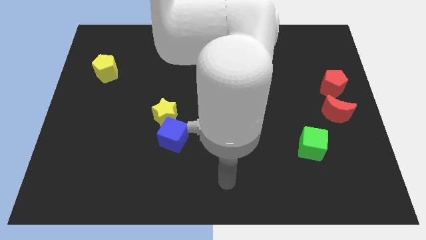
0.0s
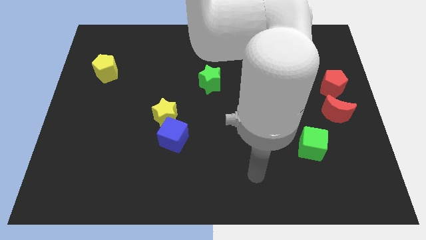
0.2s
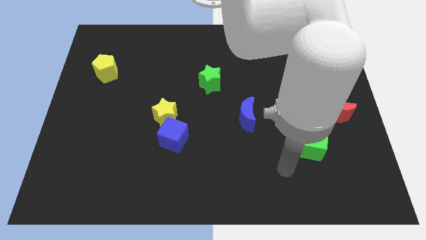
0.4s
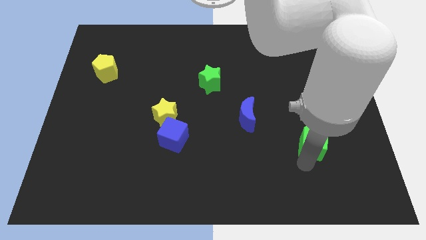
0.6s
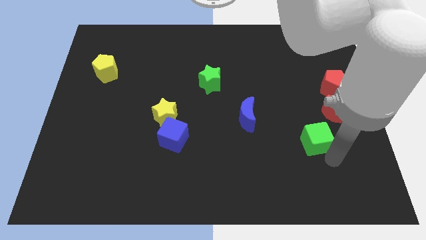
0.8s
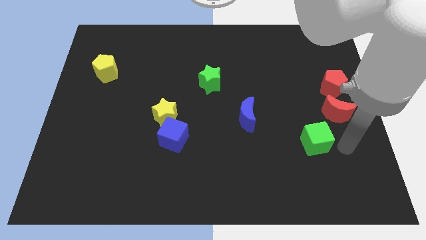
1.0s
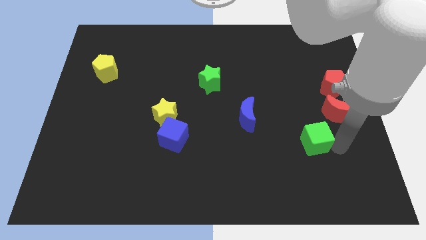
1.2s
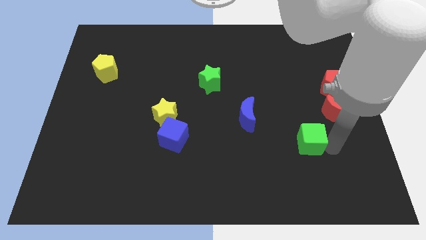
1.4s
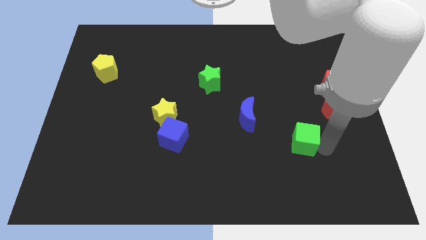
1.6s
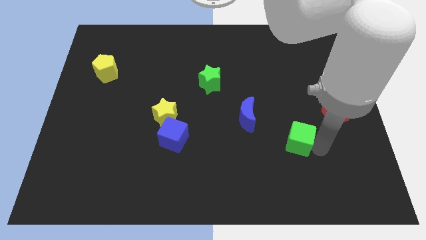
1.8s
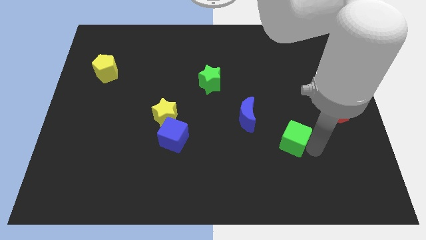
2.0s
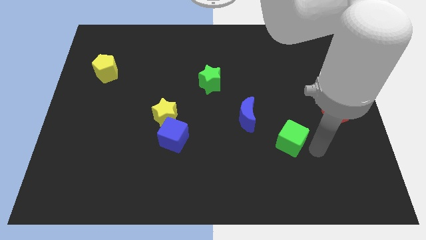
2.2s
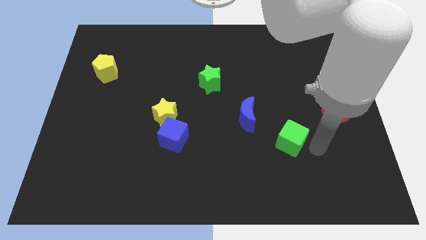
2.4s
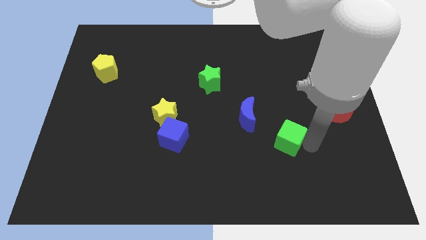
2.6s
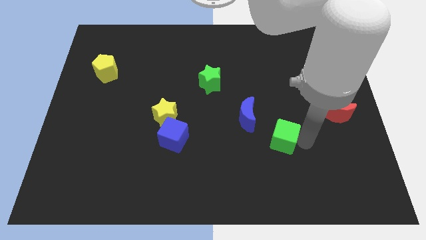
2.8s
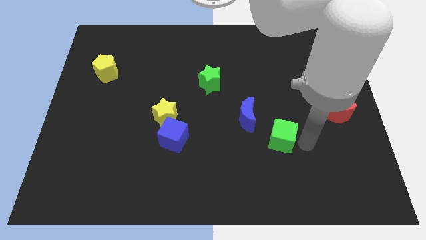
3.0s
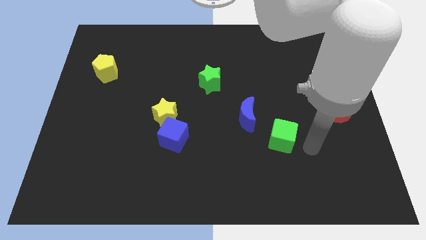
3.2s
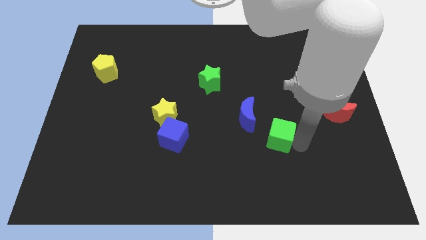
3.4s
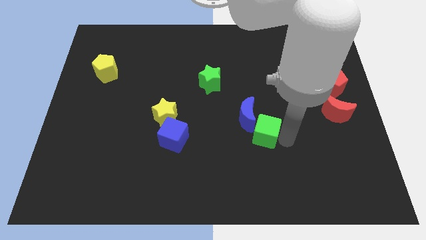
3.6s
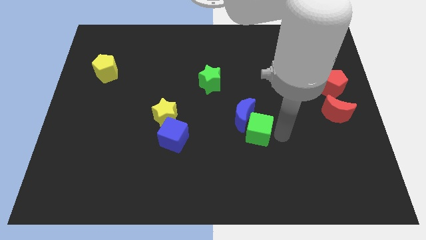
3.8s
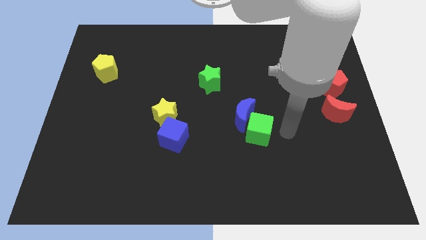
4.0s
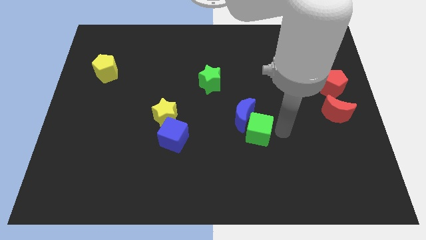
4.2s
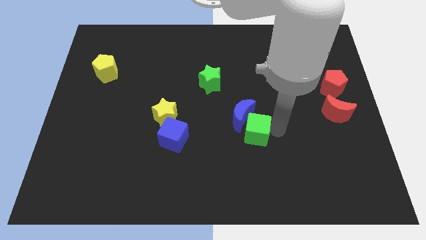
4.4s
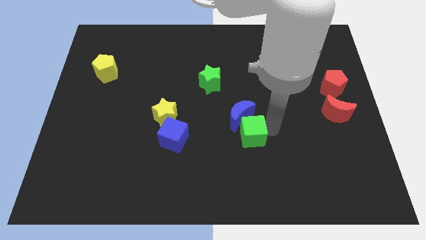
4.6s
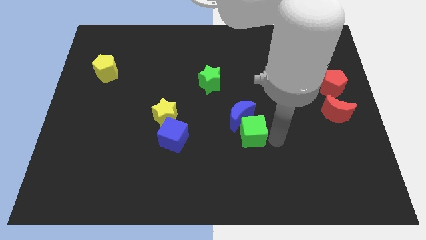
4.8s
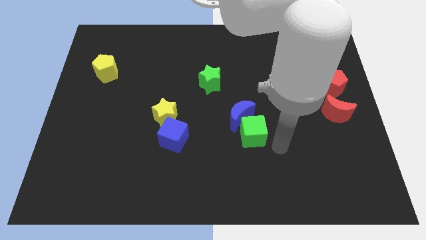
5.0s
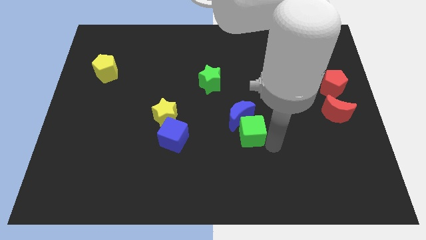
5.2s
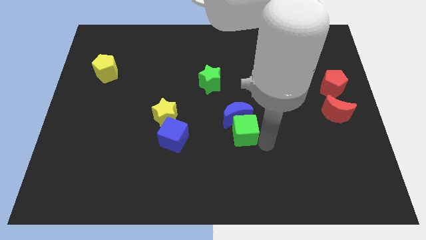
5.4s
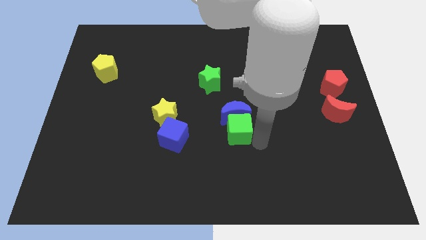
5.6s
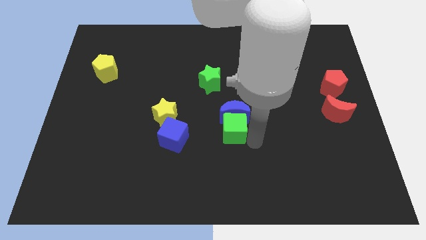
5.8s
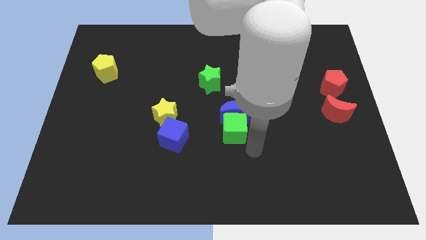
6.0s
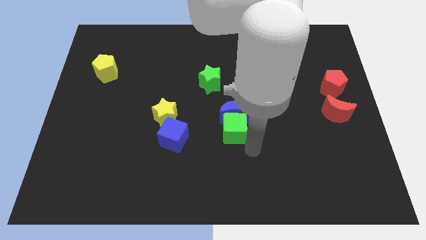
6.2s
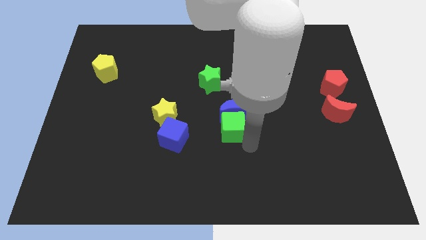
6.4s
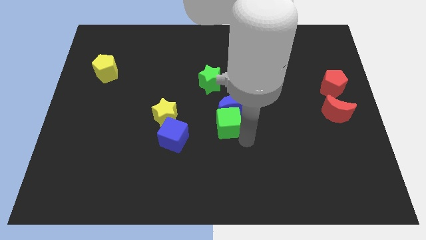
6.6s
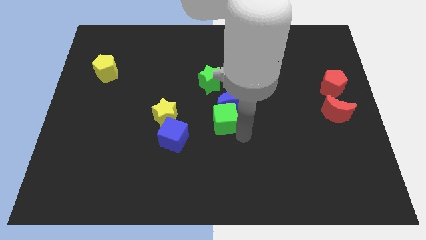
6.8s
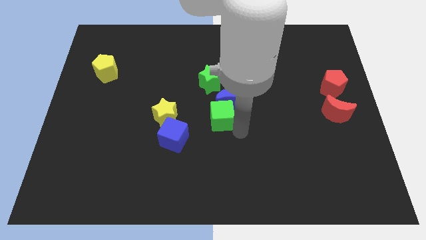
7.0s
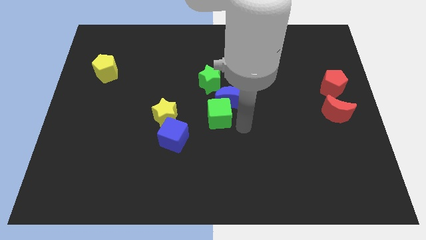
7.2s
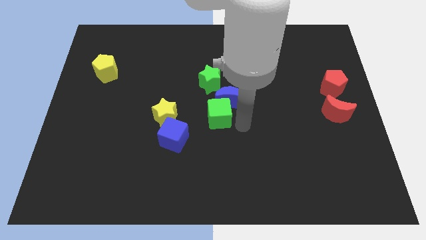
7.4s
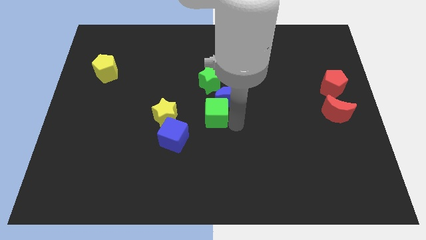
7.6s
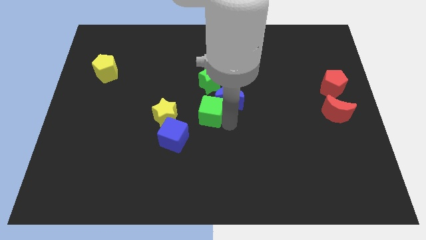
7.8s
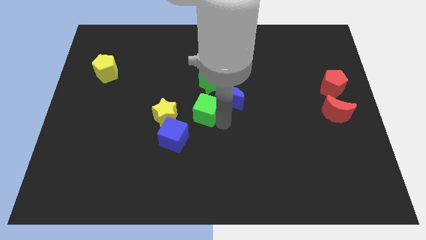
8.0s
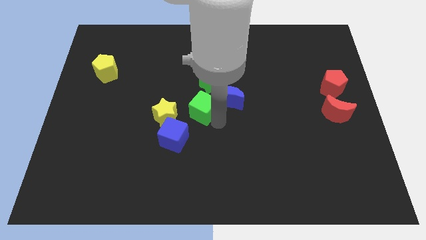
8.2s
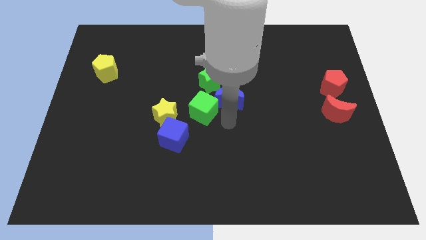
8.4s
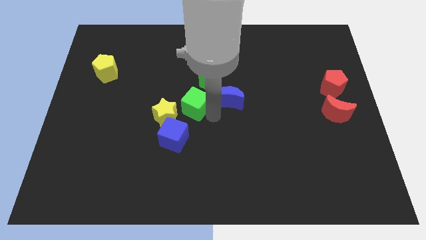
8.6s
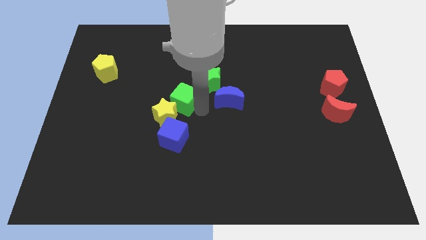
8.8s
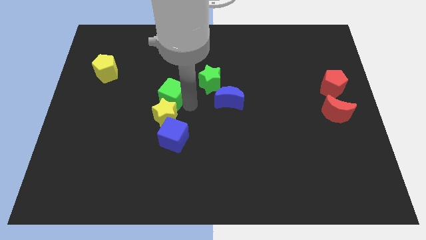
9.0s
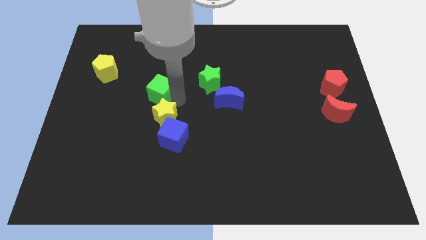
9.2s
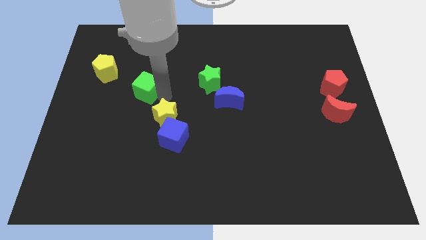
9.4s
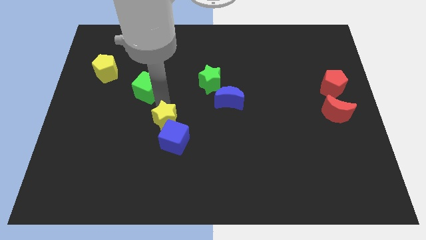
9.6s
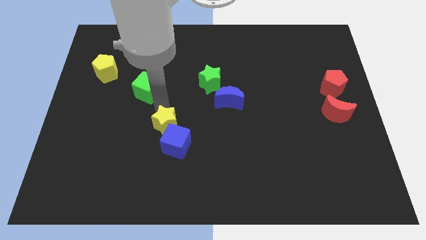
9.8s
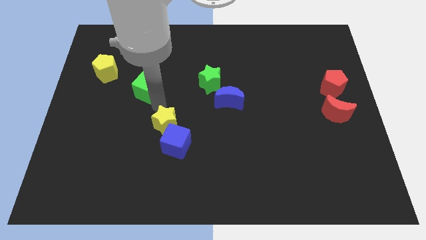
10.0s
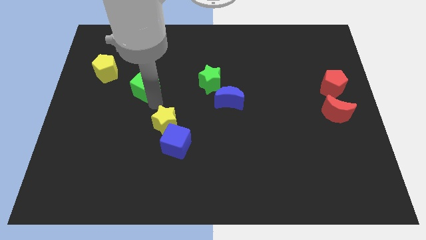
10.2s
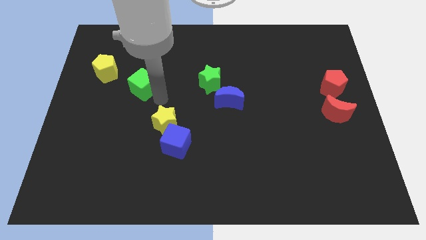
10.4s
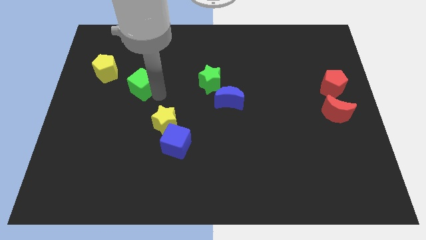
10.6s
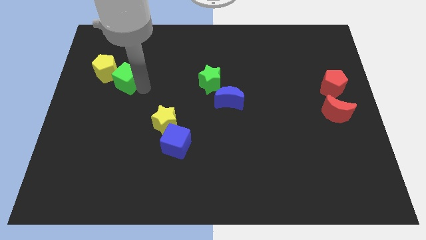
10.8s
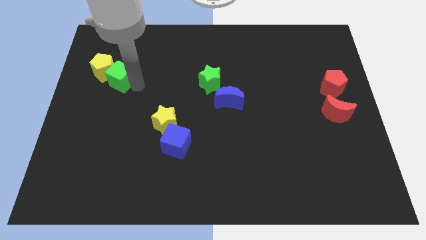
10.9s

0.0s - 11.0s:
push the green cube next to the yellow pentagon

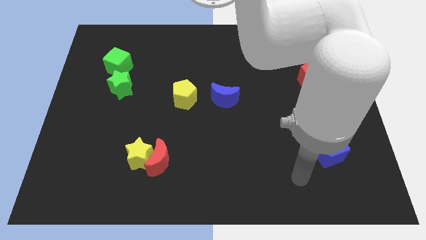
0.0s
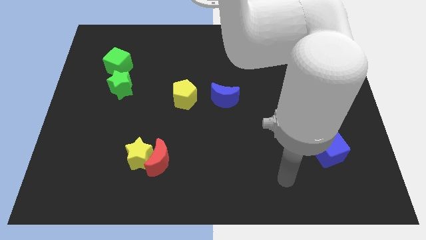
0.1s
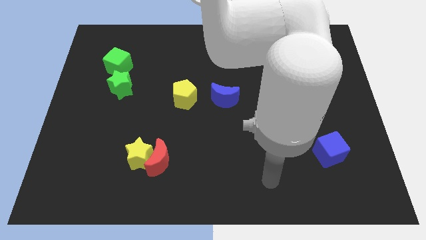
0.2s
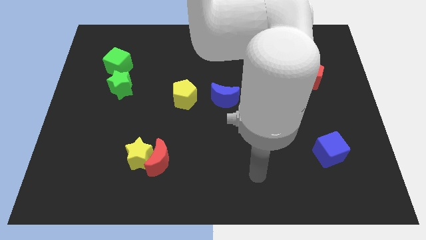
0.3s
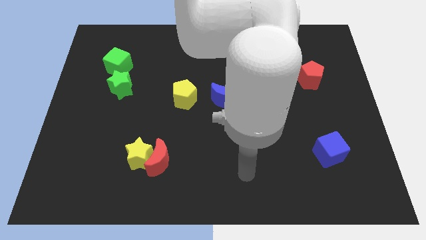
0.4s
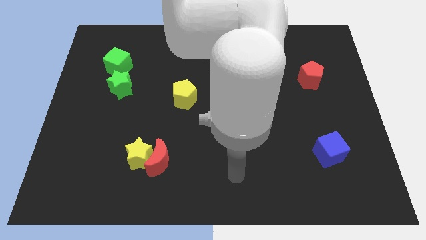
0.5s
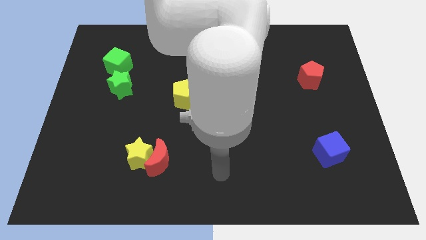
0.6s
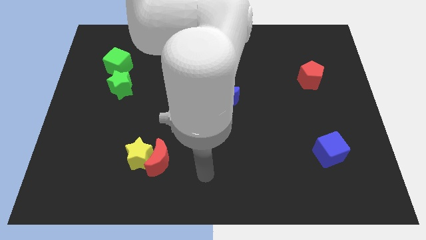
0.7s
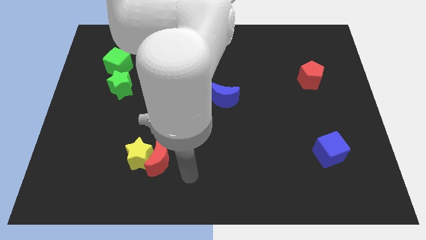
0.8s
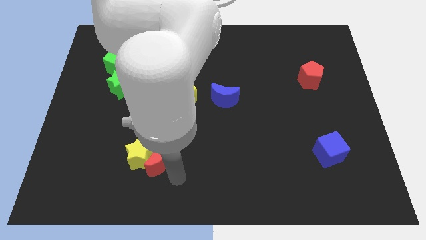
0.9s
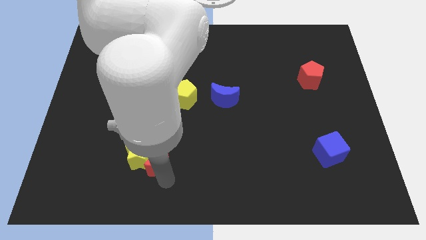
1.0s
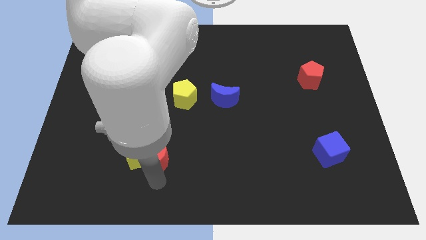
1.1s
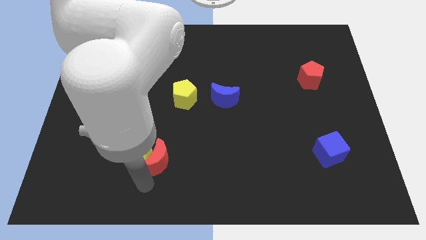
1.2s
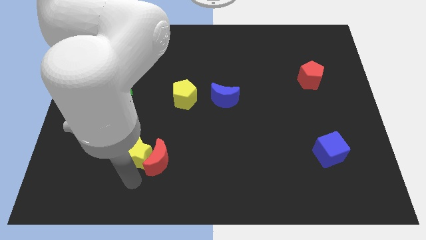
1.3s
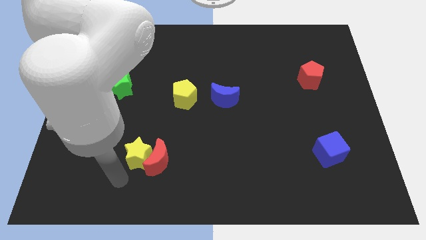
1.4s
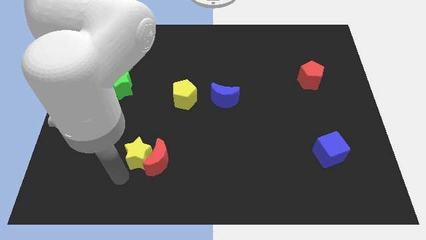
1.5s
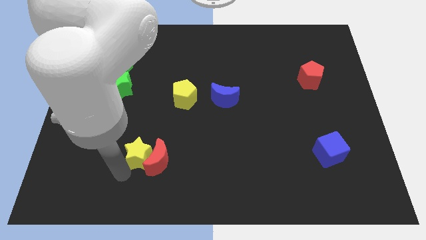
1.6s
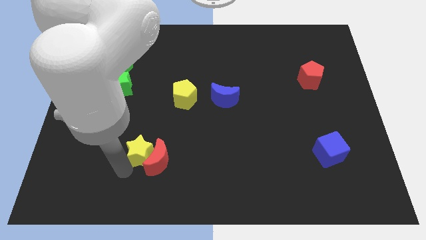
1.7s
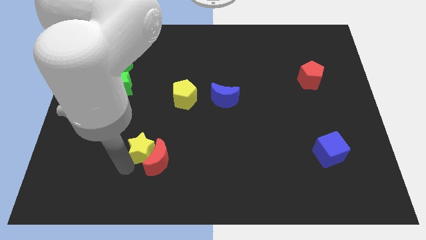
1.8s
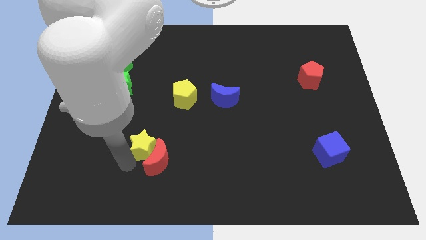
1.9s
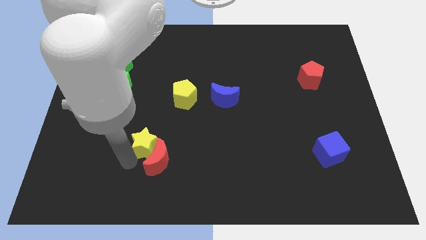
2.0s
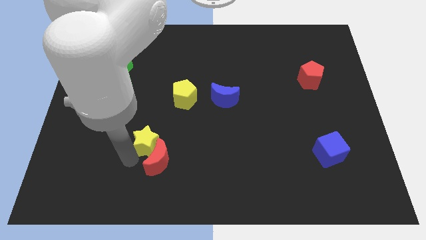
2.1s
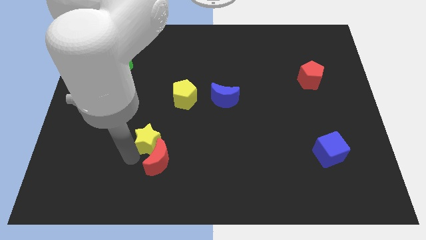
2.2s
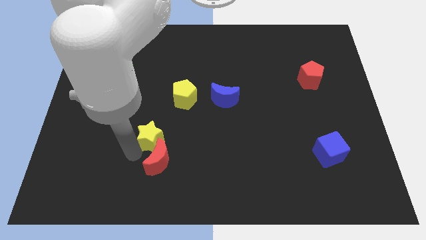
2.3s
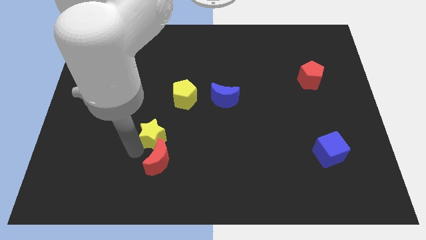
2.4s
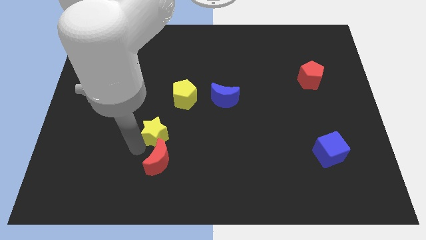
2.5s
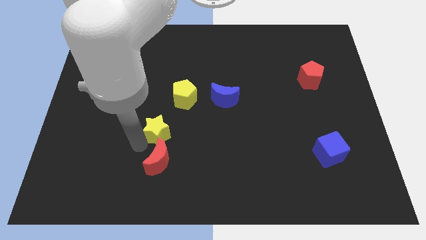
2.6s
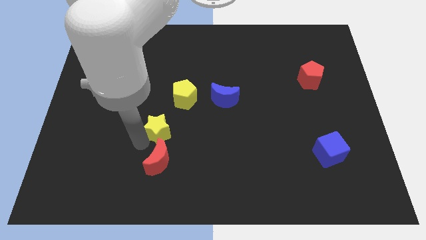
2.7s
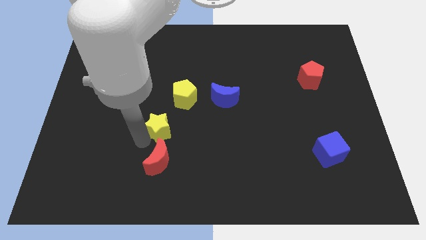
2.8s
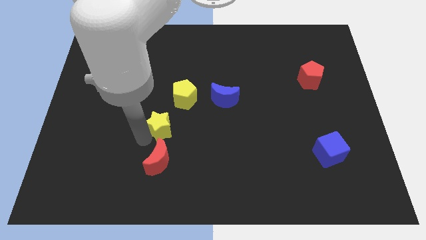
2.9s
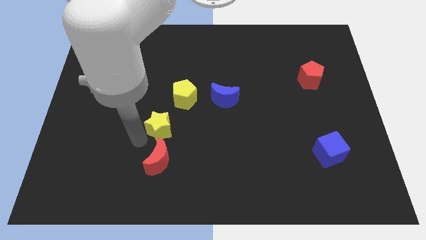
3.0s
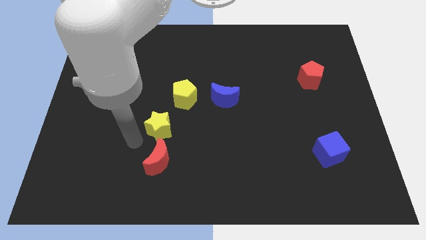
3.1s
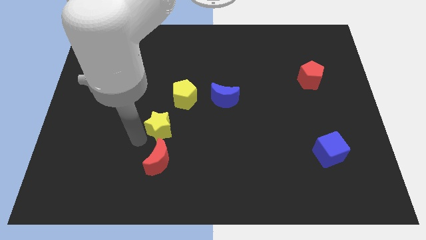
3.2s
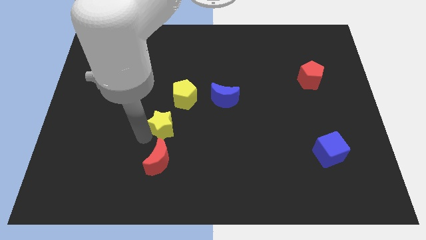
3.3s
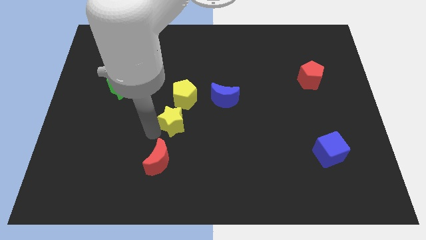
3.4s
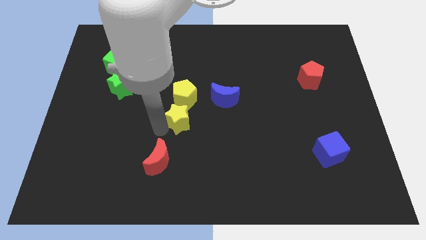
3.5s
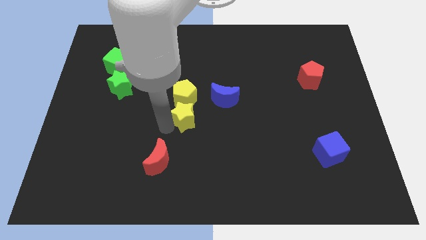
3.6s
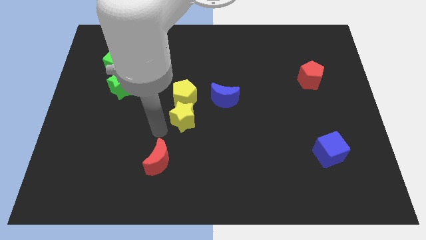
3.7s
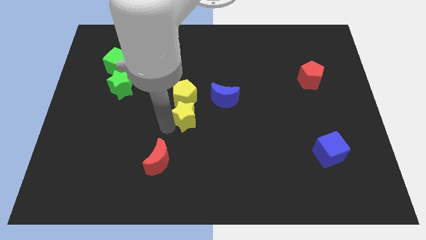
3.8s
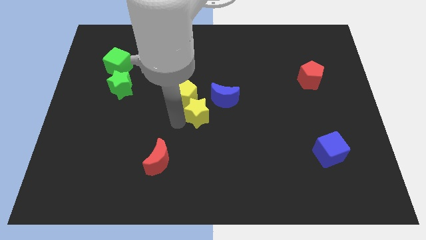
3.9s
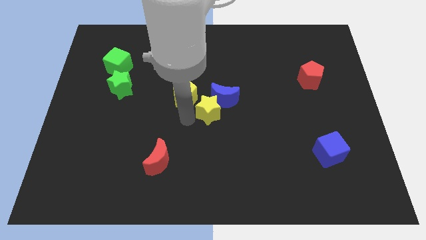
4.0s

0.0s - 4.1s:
move the yellow star to the blue moon
